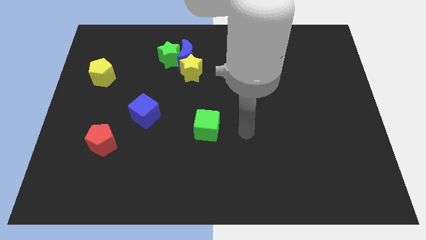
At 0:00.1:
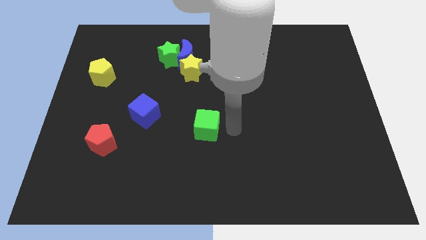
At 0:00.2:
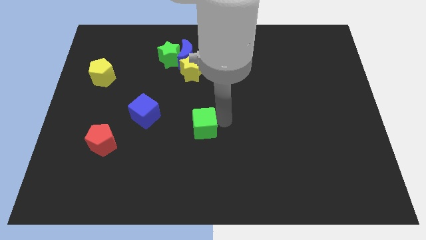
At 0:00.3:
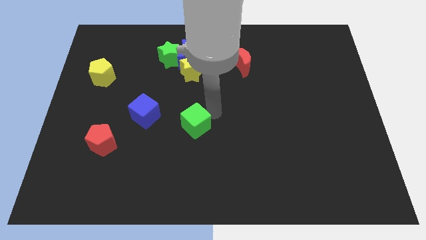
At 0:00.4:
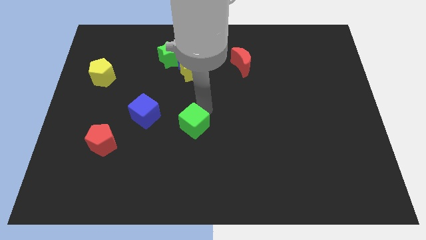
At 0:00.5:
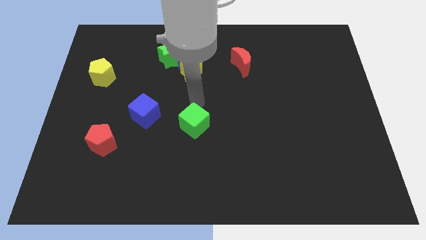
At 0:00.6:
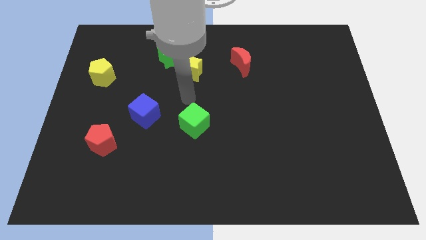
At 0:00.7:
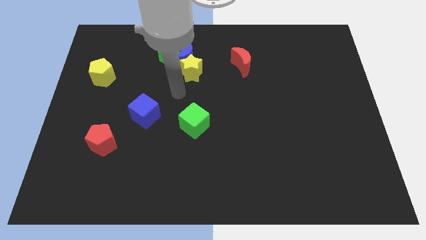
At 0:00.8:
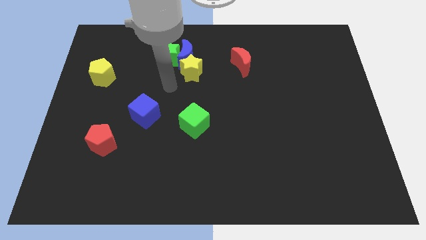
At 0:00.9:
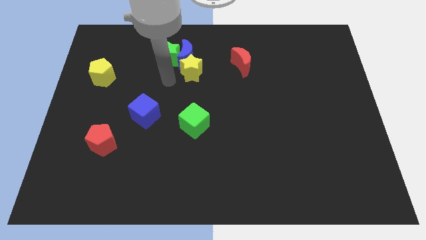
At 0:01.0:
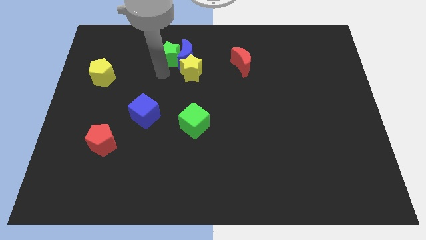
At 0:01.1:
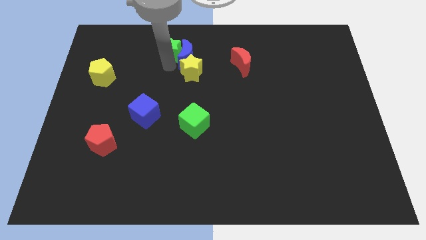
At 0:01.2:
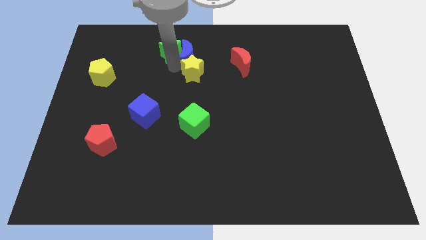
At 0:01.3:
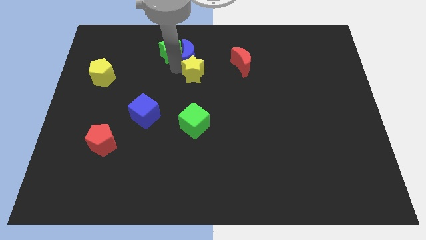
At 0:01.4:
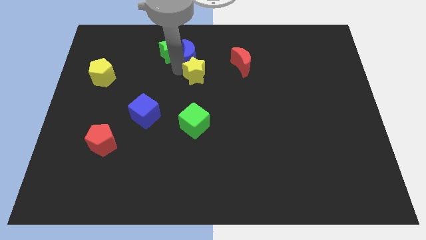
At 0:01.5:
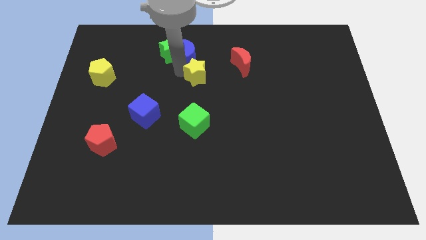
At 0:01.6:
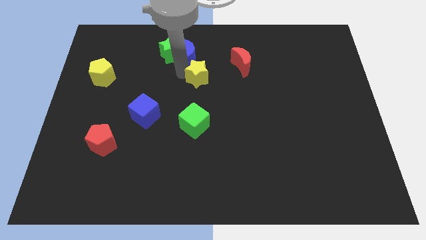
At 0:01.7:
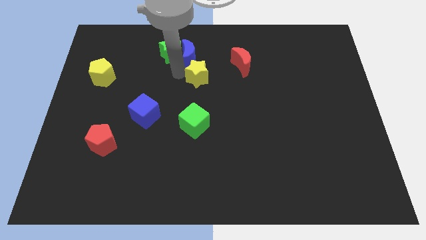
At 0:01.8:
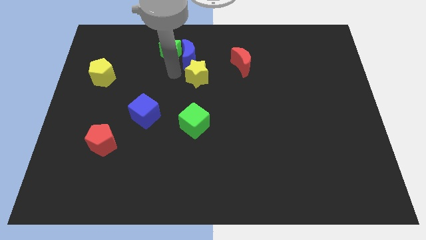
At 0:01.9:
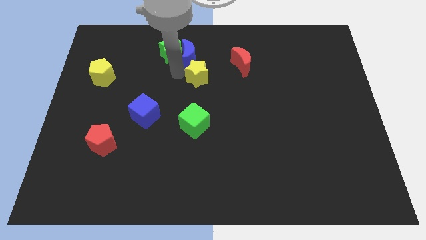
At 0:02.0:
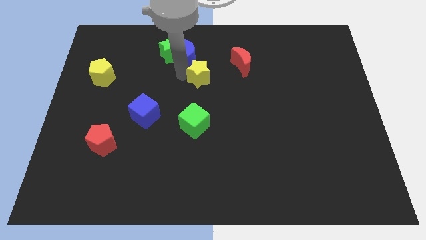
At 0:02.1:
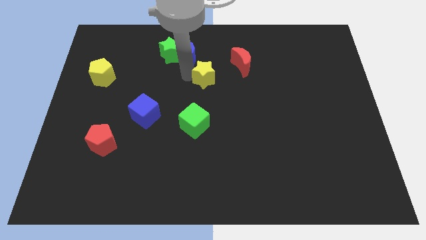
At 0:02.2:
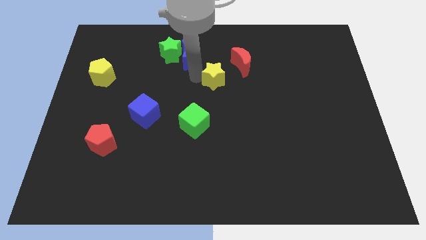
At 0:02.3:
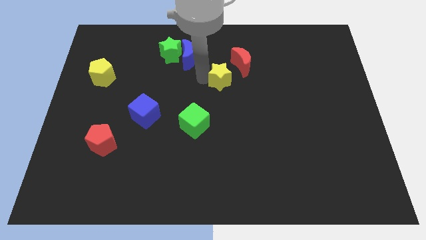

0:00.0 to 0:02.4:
push the yellow star to the right slightly

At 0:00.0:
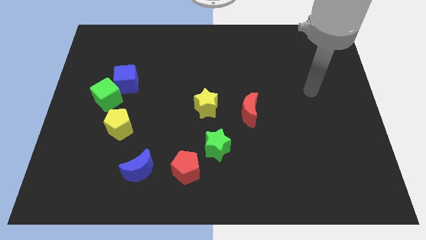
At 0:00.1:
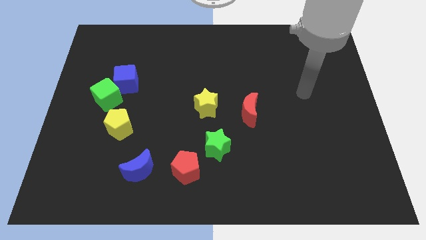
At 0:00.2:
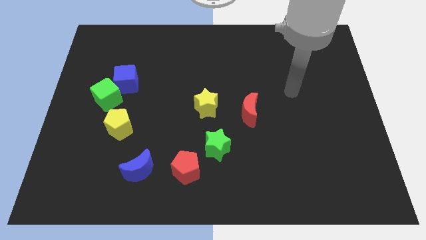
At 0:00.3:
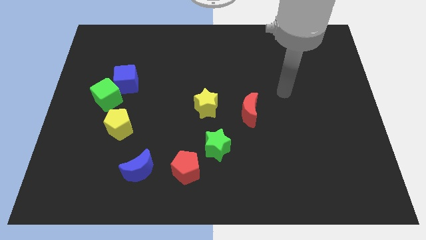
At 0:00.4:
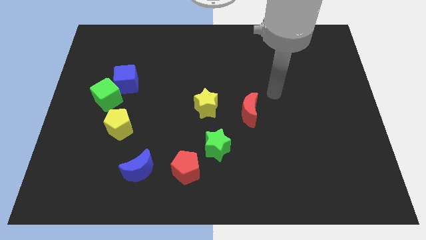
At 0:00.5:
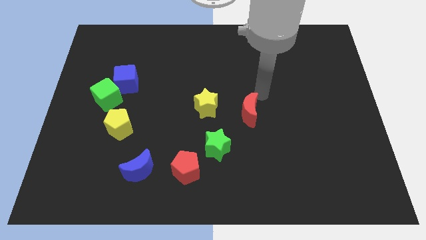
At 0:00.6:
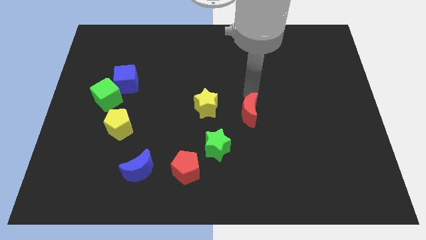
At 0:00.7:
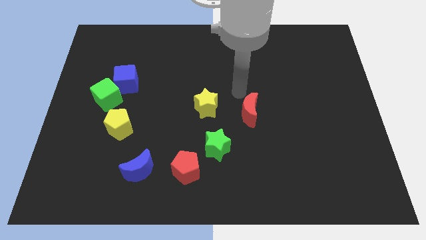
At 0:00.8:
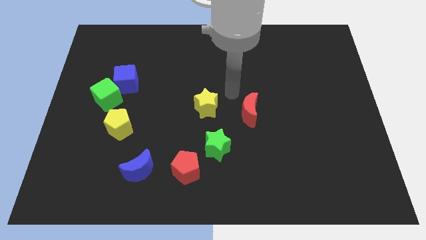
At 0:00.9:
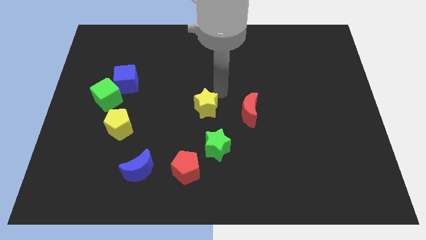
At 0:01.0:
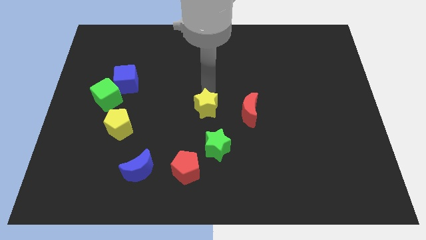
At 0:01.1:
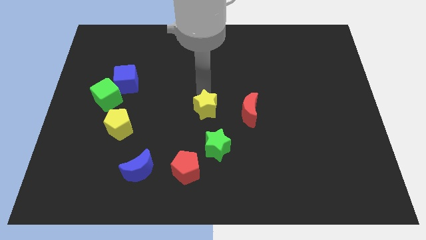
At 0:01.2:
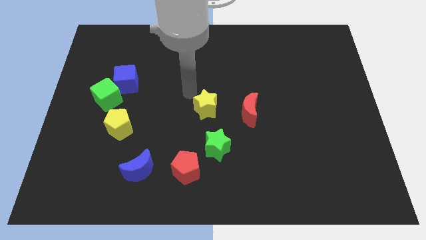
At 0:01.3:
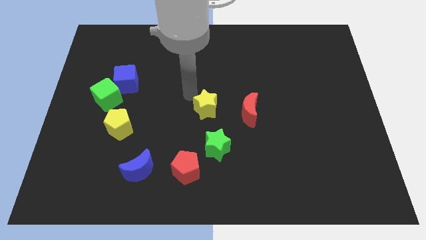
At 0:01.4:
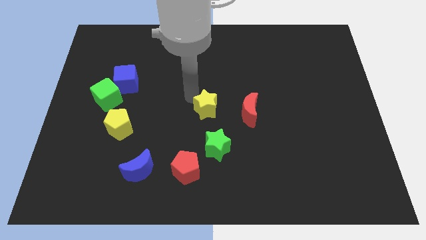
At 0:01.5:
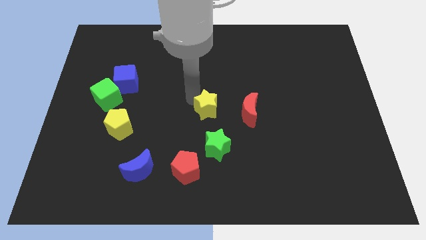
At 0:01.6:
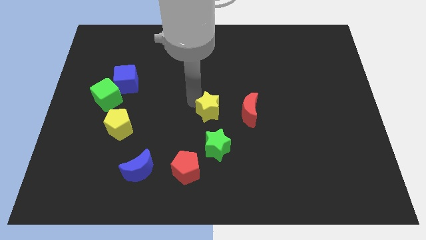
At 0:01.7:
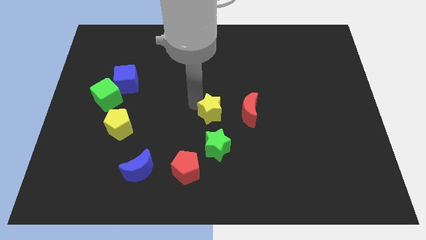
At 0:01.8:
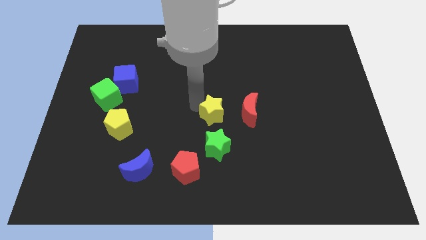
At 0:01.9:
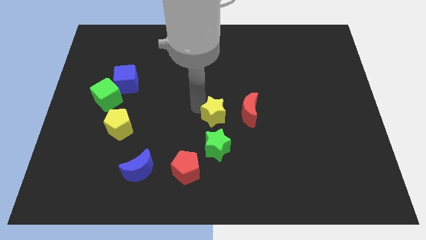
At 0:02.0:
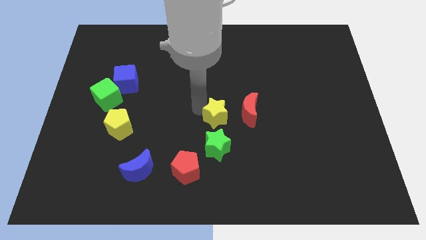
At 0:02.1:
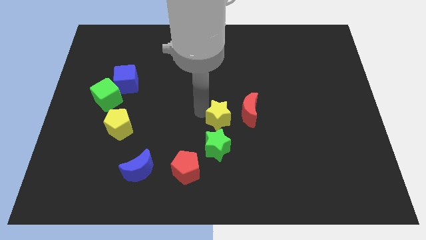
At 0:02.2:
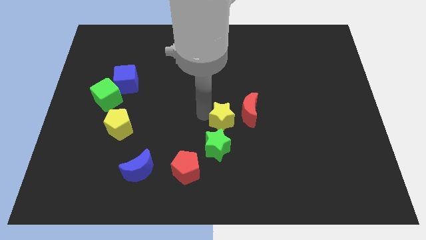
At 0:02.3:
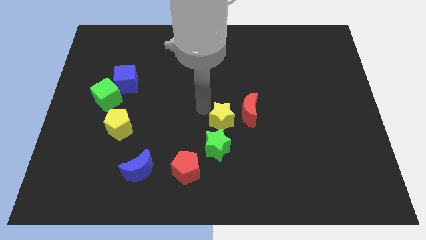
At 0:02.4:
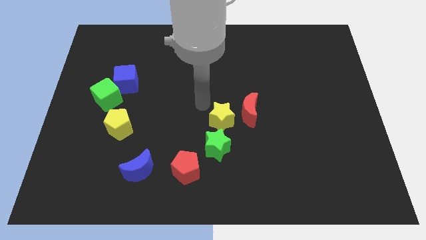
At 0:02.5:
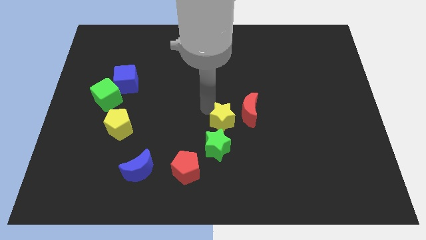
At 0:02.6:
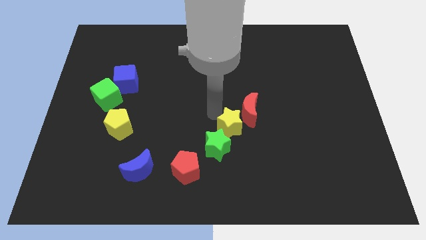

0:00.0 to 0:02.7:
slightly slide the yellow star down and to the right diagonally

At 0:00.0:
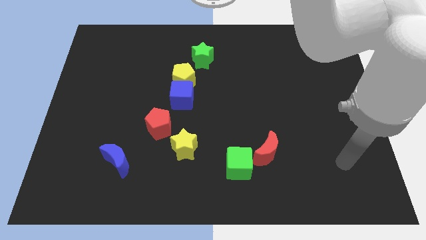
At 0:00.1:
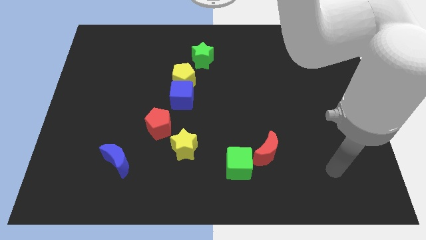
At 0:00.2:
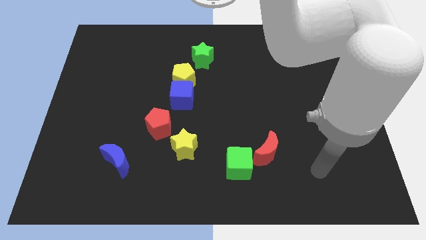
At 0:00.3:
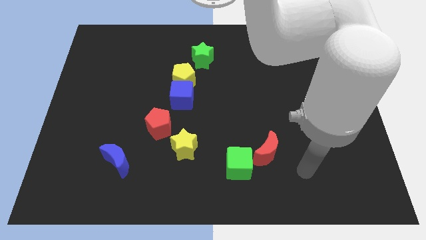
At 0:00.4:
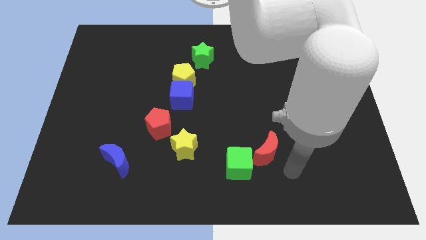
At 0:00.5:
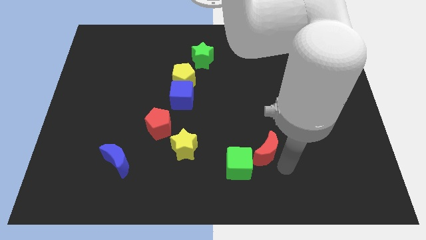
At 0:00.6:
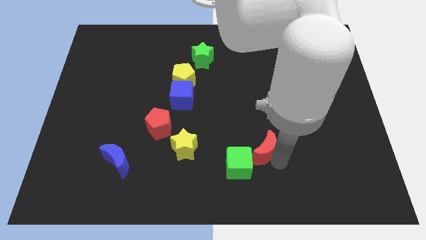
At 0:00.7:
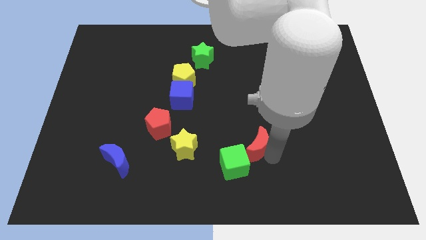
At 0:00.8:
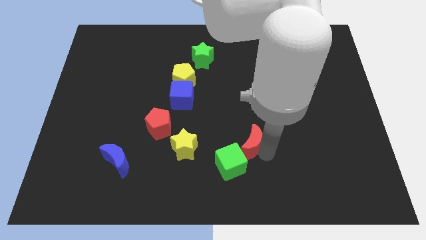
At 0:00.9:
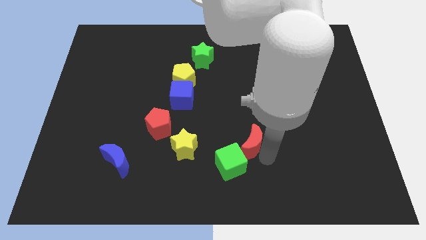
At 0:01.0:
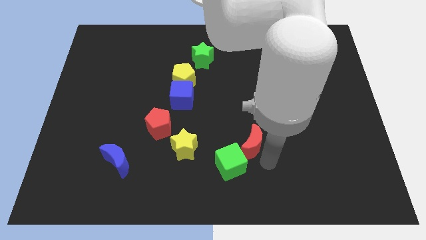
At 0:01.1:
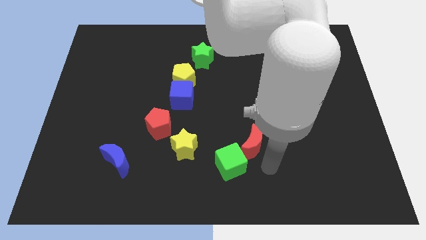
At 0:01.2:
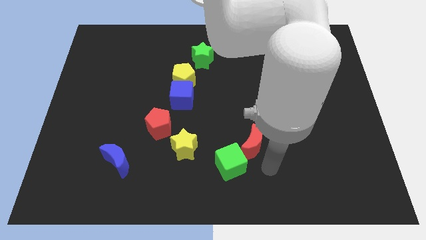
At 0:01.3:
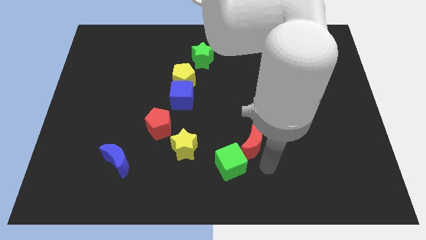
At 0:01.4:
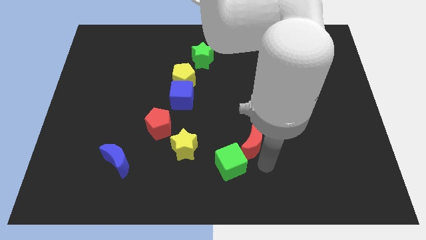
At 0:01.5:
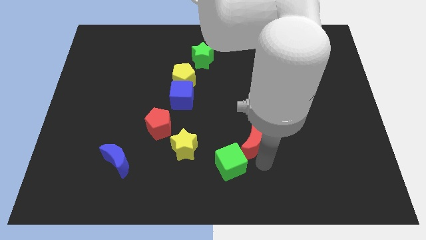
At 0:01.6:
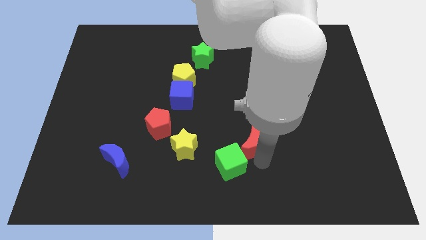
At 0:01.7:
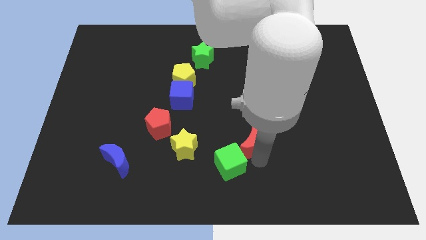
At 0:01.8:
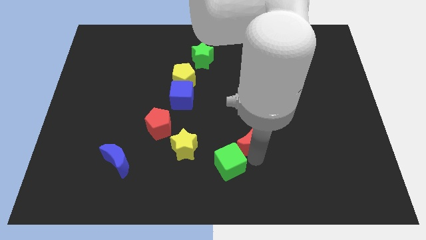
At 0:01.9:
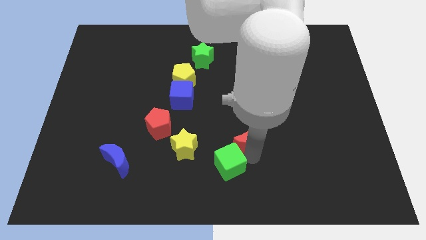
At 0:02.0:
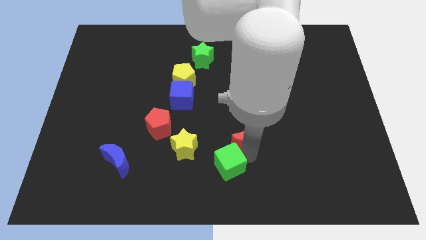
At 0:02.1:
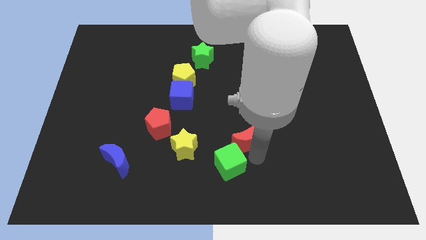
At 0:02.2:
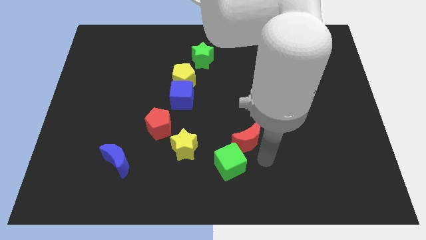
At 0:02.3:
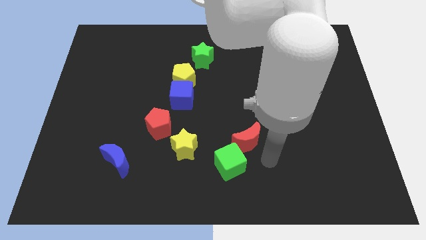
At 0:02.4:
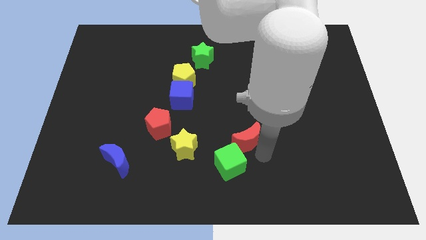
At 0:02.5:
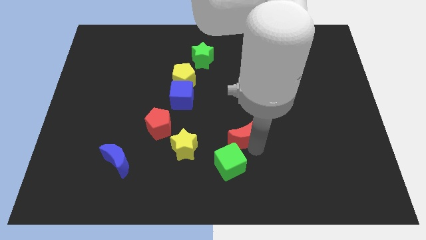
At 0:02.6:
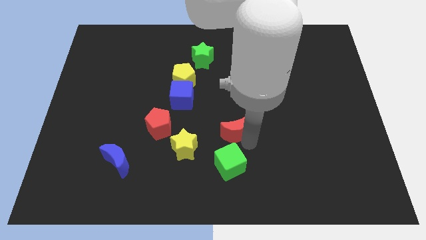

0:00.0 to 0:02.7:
push the red moon a little bit diagonally upwards and left

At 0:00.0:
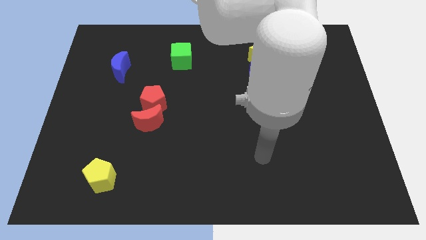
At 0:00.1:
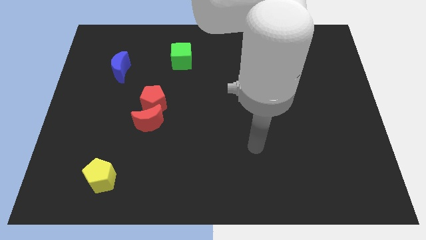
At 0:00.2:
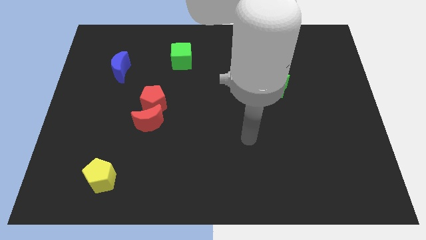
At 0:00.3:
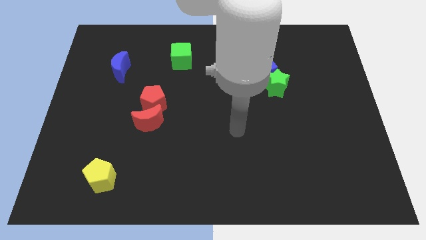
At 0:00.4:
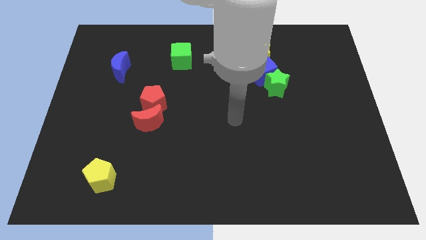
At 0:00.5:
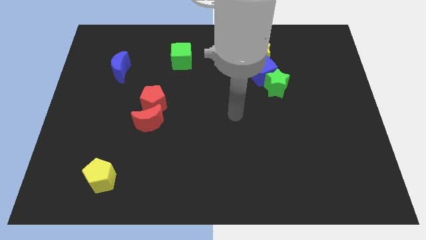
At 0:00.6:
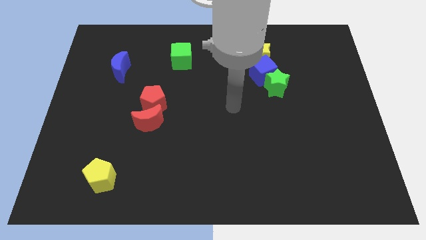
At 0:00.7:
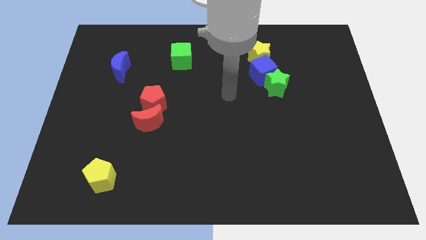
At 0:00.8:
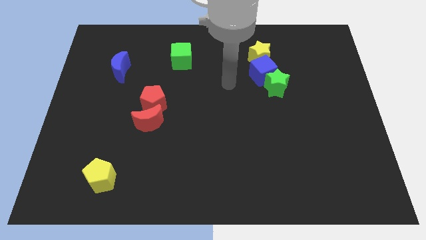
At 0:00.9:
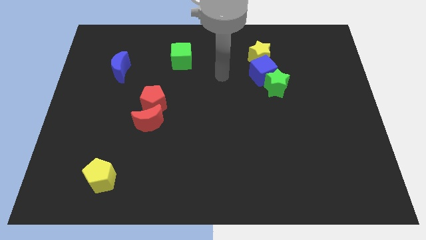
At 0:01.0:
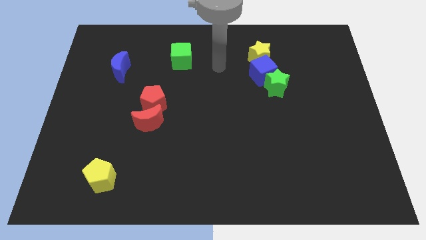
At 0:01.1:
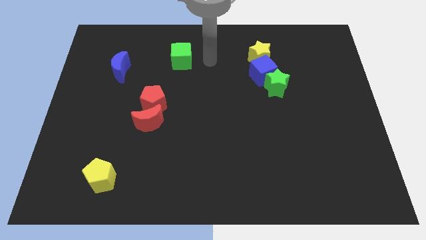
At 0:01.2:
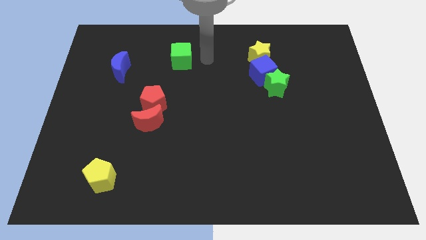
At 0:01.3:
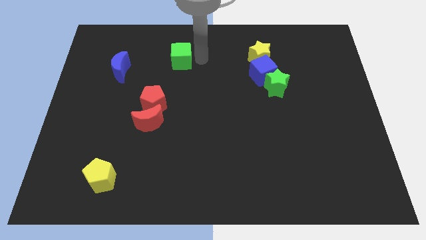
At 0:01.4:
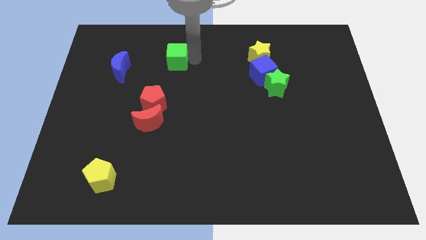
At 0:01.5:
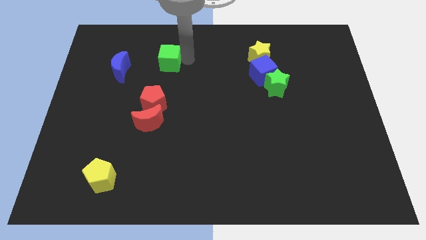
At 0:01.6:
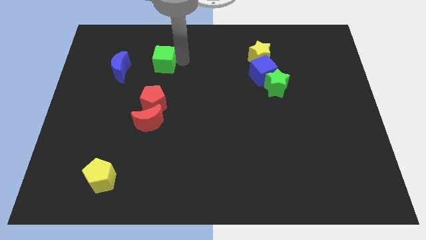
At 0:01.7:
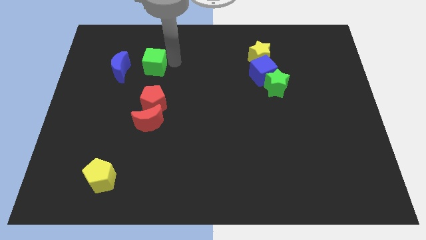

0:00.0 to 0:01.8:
move the green cube a bit left
